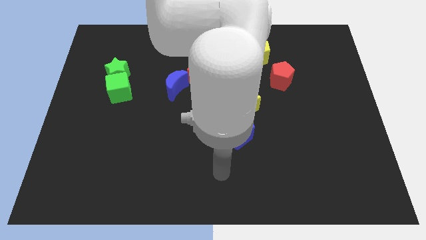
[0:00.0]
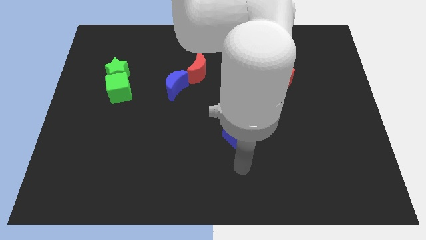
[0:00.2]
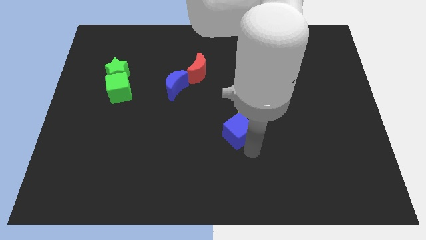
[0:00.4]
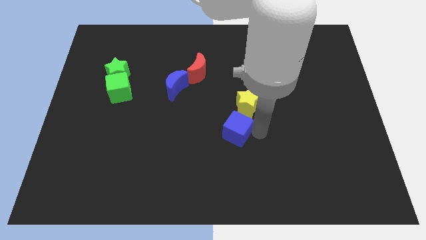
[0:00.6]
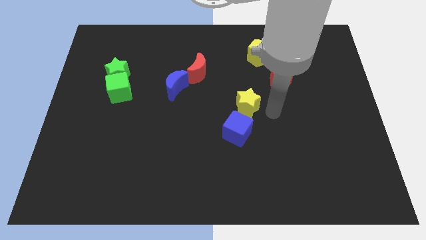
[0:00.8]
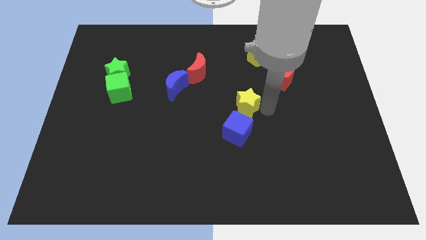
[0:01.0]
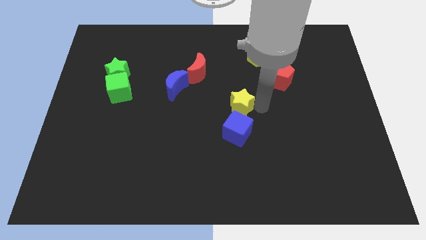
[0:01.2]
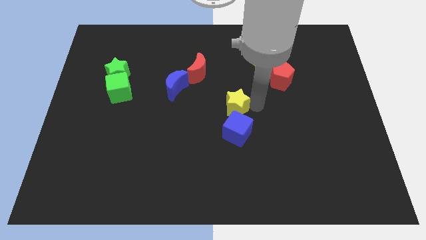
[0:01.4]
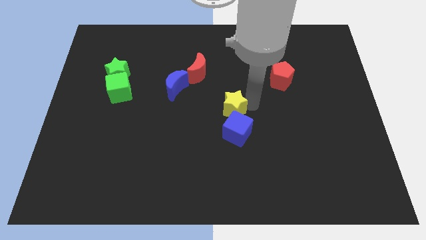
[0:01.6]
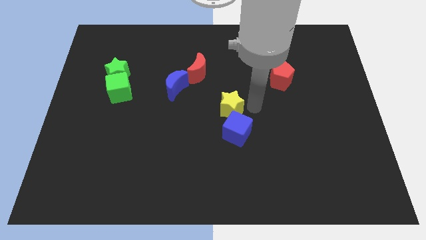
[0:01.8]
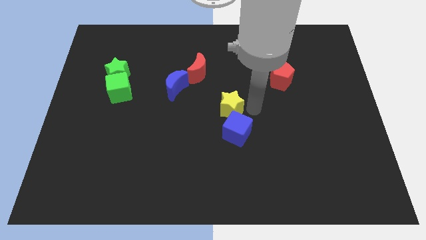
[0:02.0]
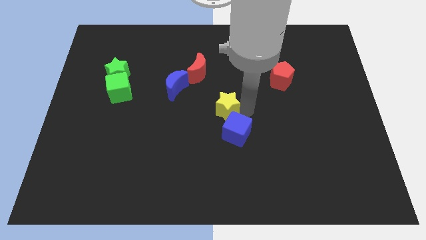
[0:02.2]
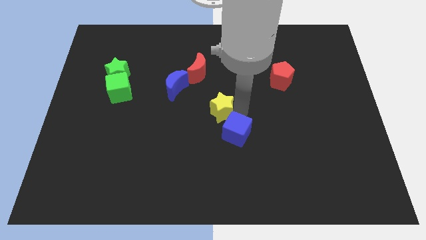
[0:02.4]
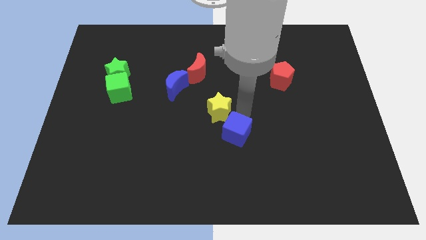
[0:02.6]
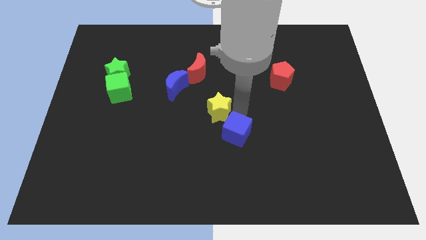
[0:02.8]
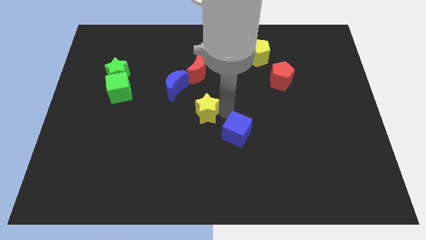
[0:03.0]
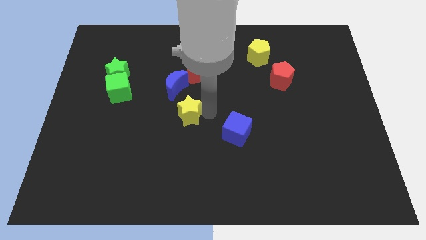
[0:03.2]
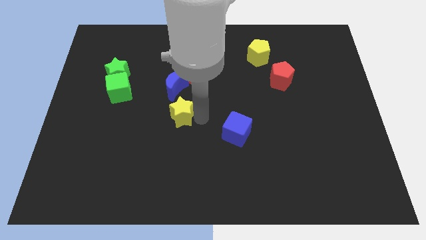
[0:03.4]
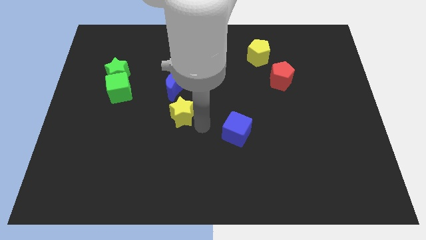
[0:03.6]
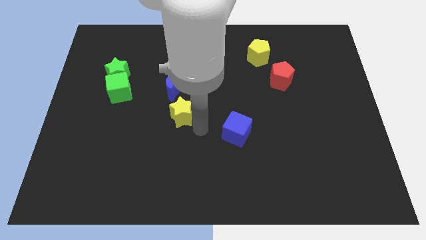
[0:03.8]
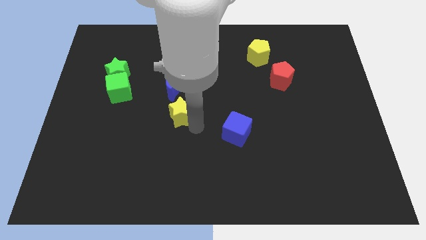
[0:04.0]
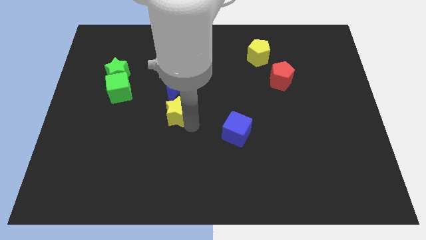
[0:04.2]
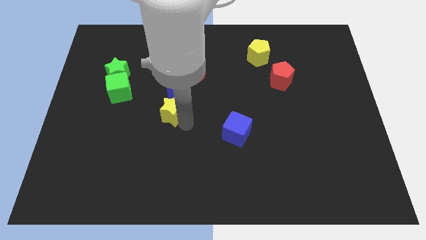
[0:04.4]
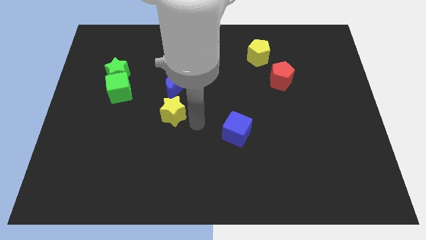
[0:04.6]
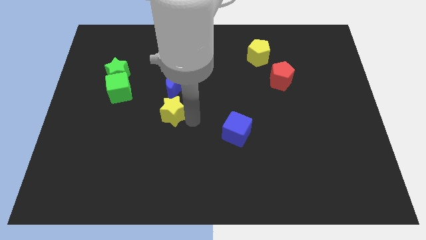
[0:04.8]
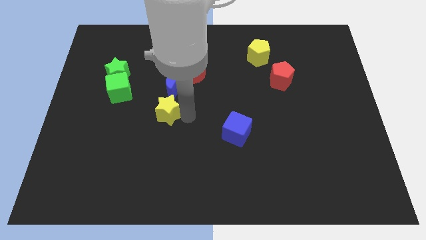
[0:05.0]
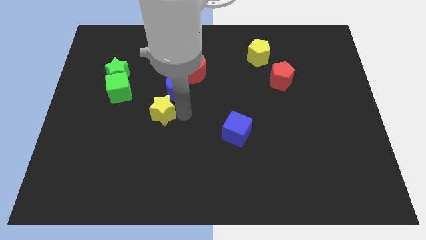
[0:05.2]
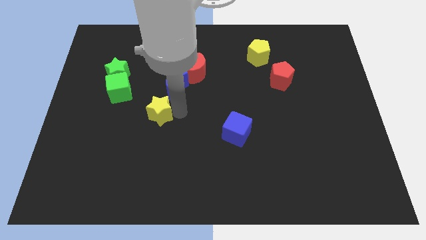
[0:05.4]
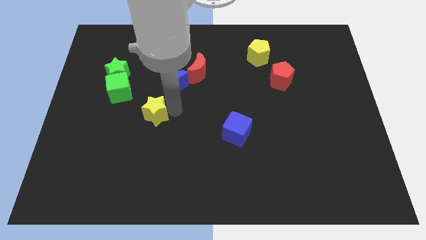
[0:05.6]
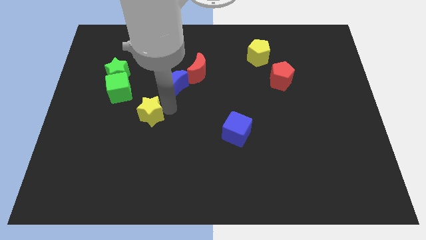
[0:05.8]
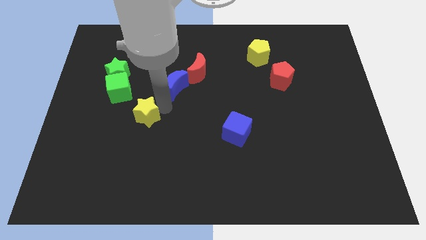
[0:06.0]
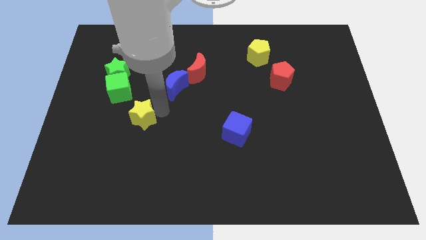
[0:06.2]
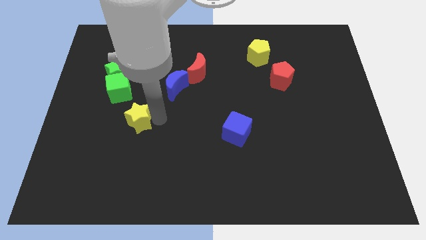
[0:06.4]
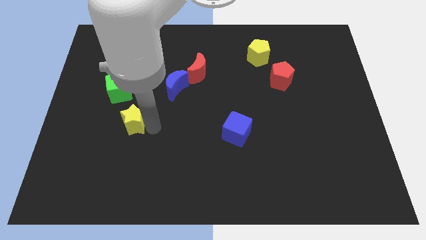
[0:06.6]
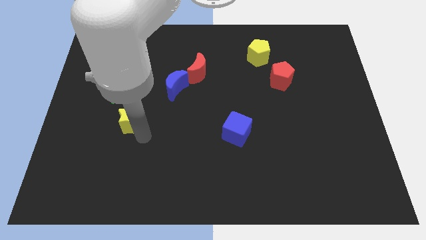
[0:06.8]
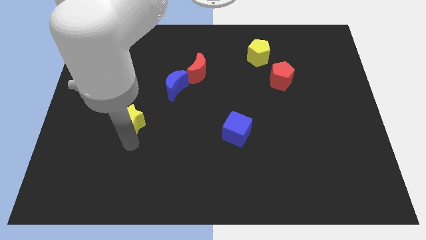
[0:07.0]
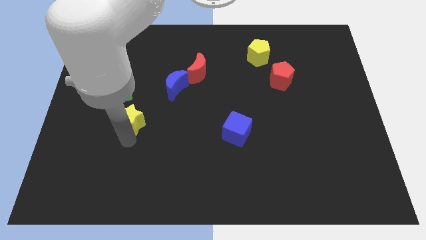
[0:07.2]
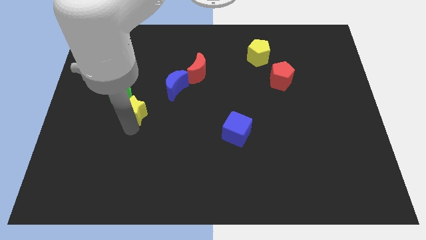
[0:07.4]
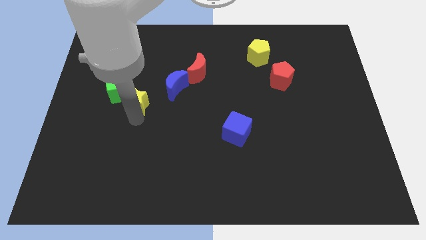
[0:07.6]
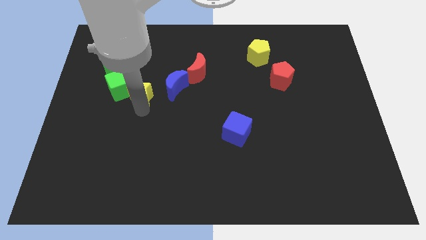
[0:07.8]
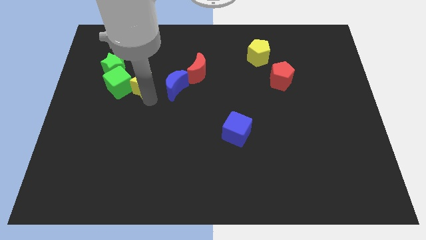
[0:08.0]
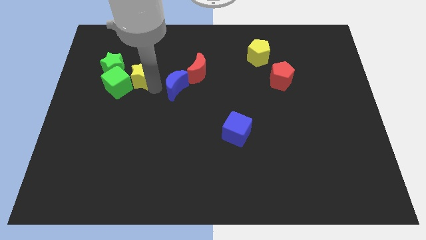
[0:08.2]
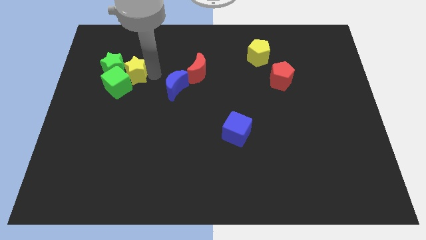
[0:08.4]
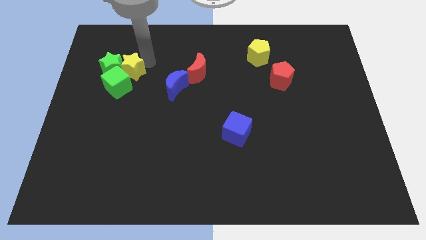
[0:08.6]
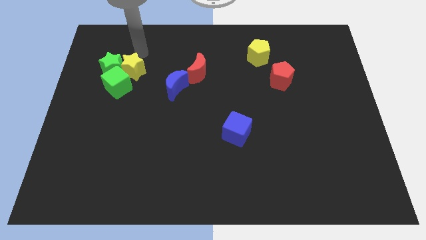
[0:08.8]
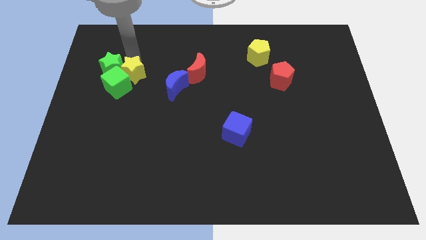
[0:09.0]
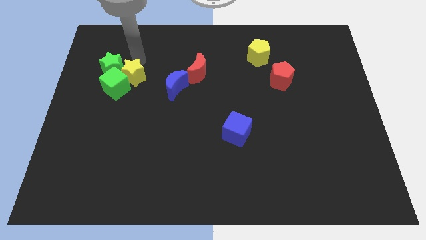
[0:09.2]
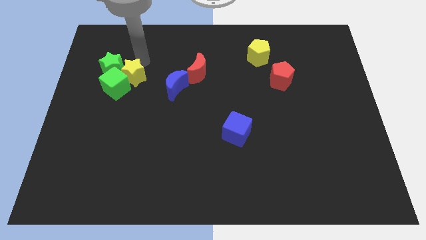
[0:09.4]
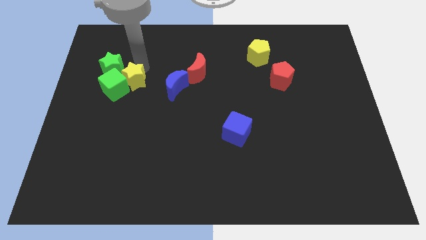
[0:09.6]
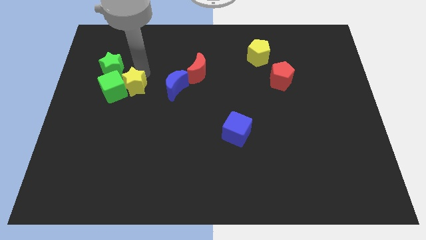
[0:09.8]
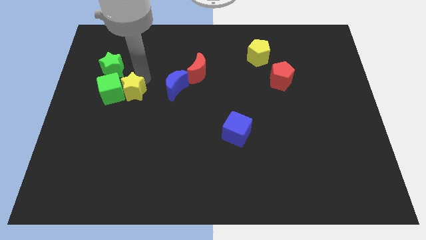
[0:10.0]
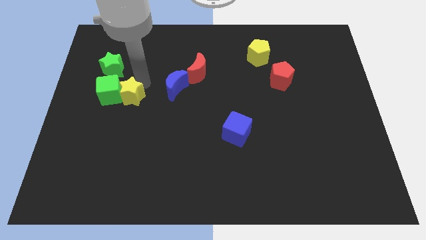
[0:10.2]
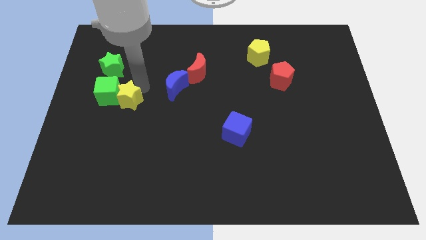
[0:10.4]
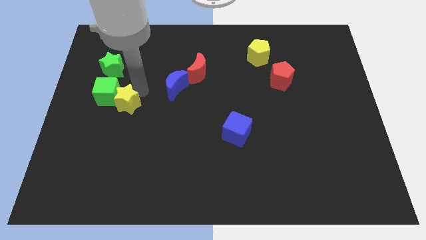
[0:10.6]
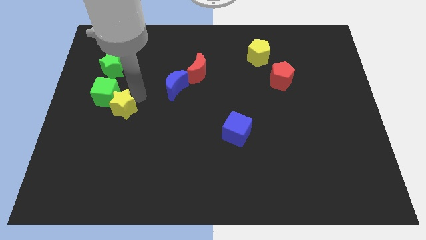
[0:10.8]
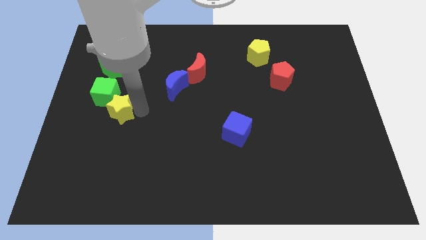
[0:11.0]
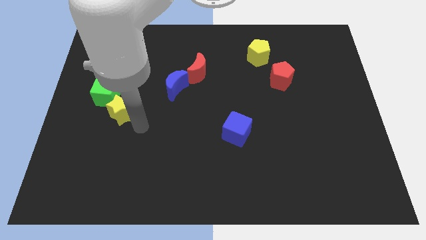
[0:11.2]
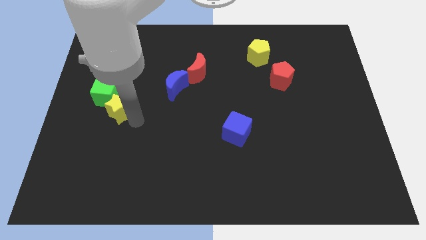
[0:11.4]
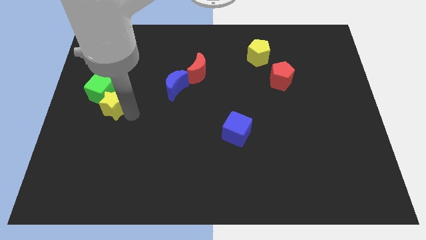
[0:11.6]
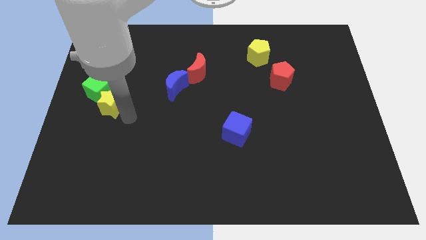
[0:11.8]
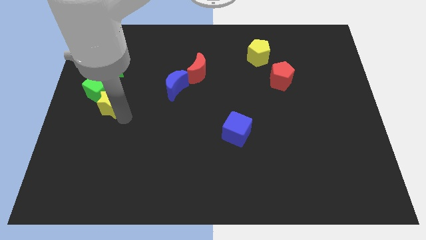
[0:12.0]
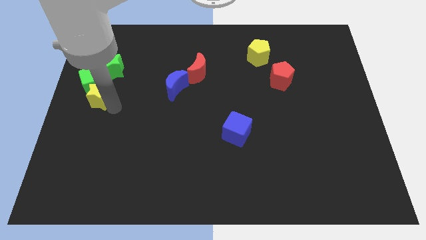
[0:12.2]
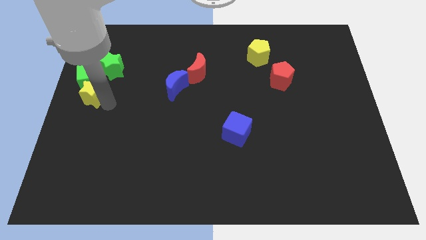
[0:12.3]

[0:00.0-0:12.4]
push the yellow star diagonally down and to the left of the green star

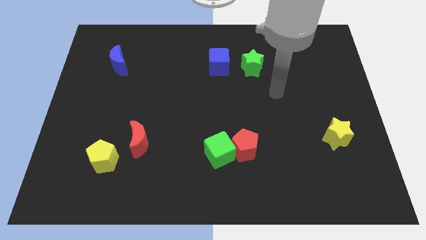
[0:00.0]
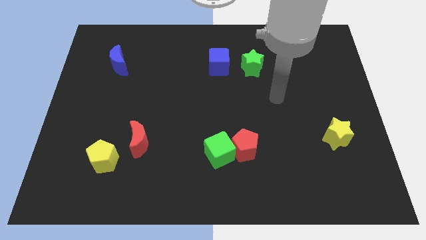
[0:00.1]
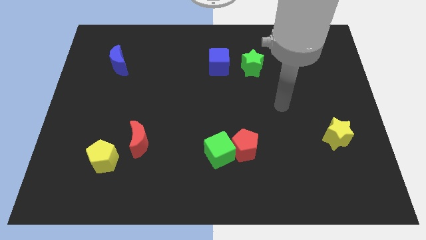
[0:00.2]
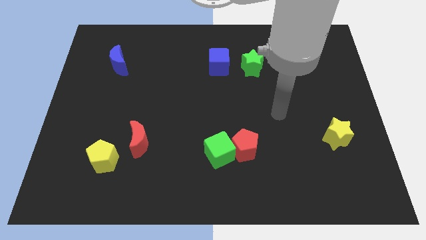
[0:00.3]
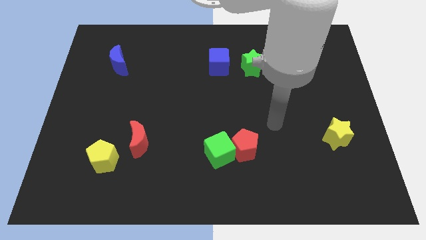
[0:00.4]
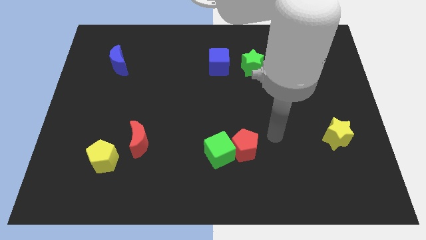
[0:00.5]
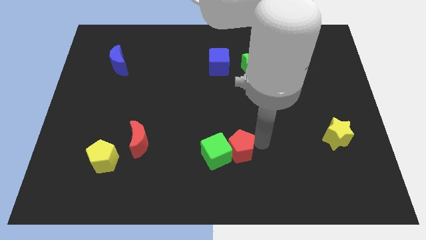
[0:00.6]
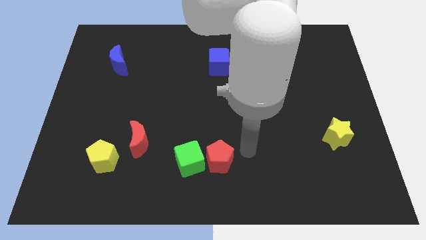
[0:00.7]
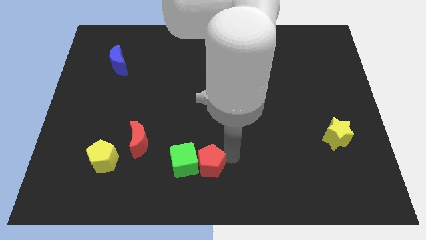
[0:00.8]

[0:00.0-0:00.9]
push the green cube to the bottom right of the red moon
